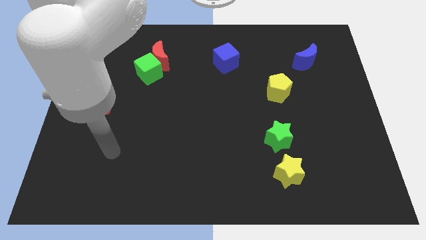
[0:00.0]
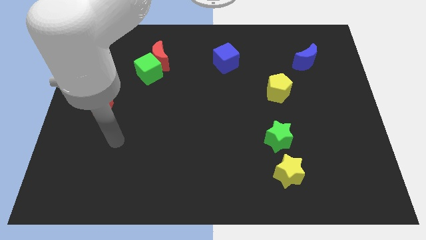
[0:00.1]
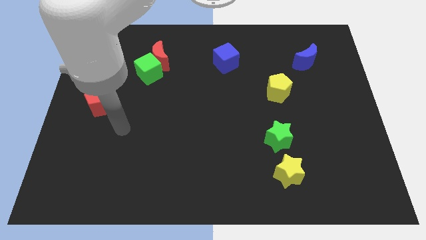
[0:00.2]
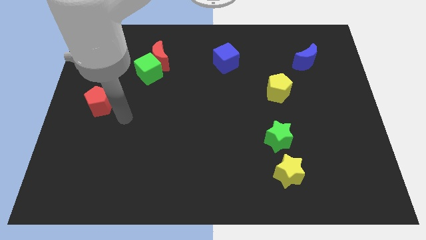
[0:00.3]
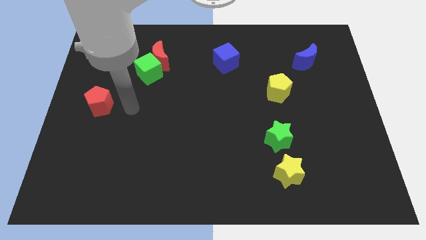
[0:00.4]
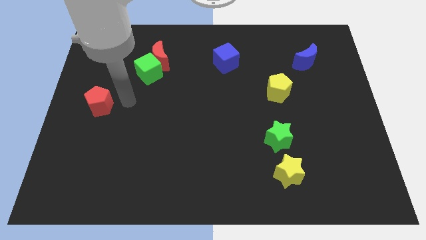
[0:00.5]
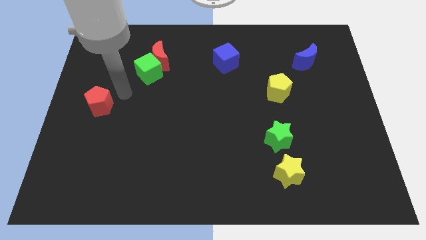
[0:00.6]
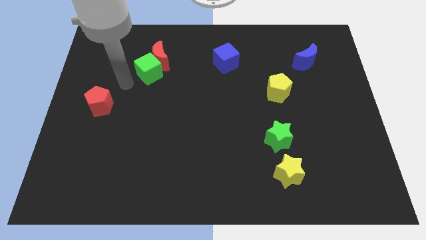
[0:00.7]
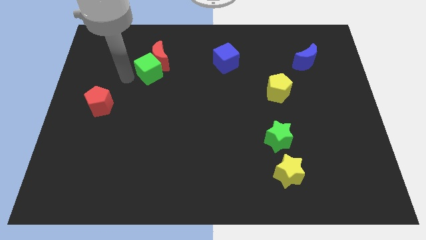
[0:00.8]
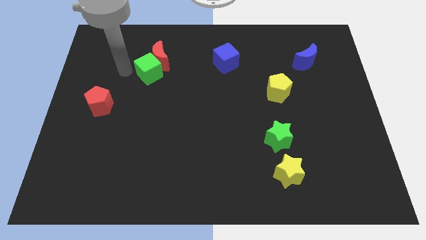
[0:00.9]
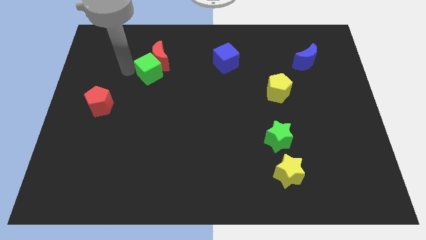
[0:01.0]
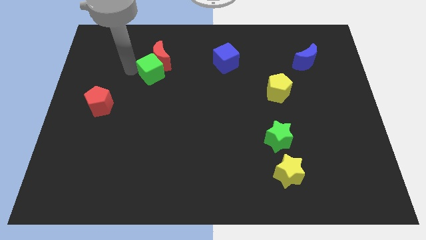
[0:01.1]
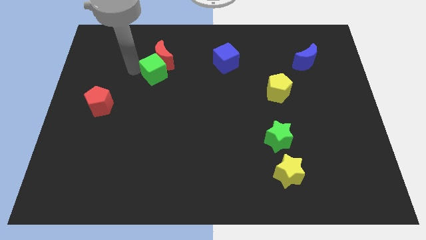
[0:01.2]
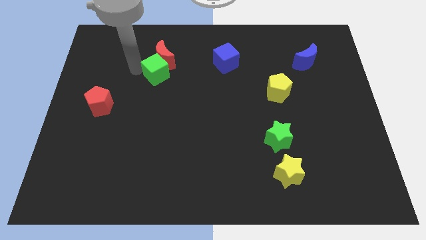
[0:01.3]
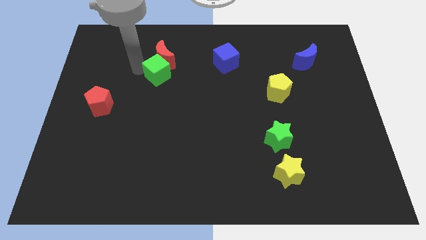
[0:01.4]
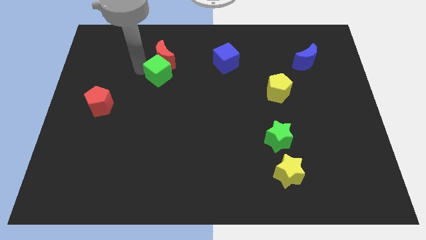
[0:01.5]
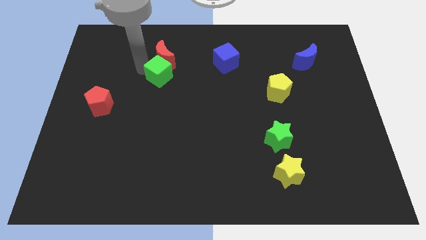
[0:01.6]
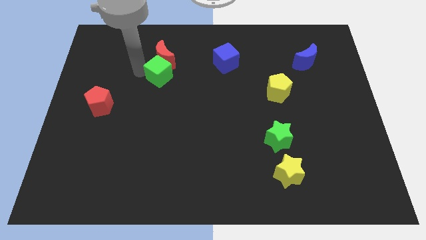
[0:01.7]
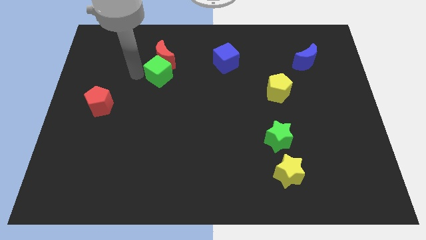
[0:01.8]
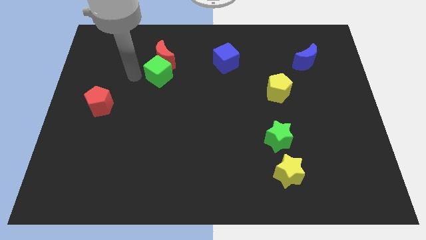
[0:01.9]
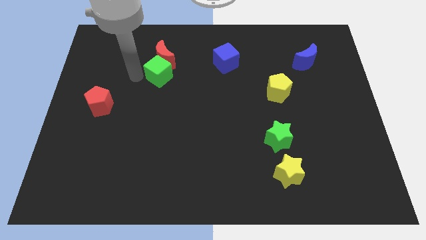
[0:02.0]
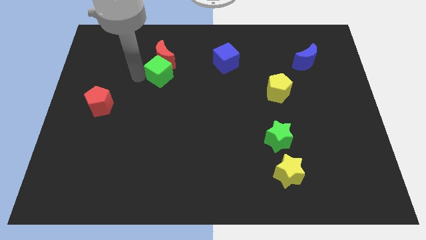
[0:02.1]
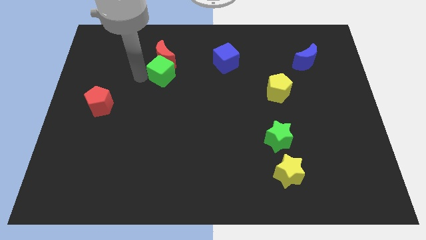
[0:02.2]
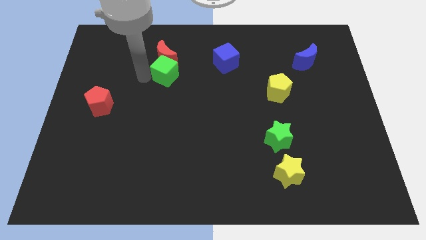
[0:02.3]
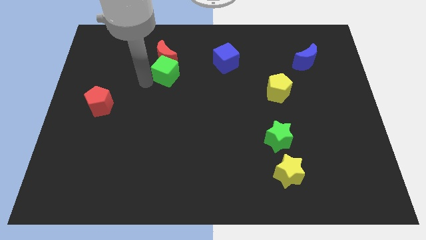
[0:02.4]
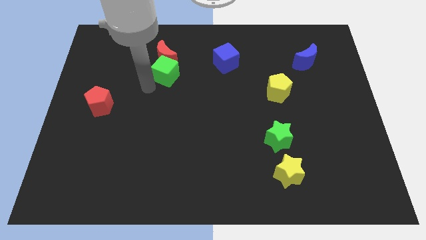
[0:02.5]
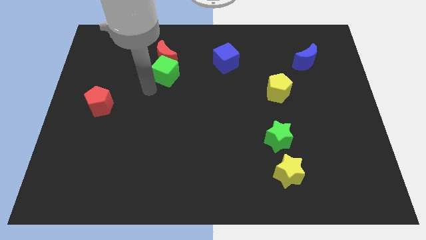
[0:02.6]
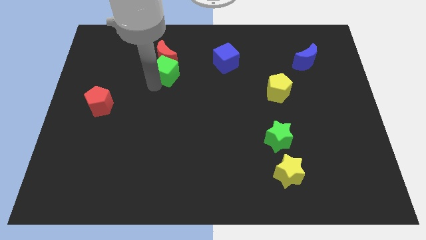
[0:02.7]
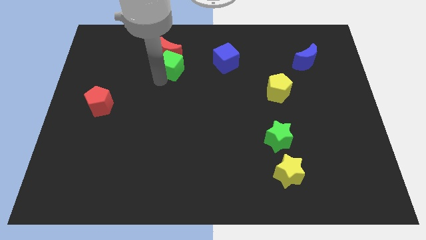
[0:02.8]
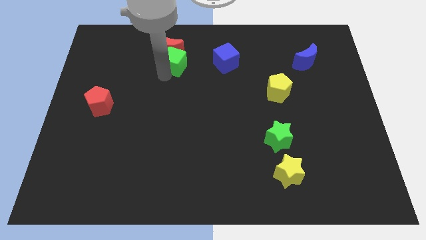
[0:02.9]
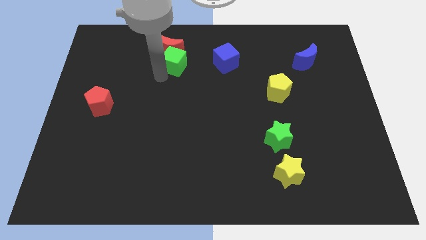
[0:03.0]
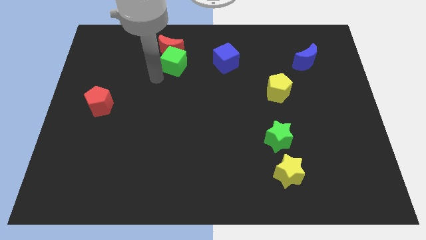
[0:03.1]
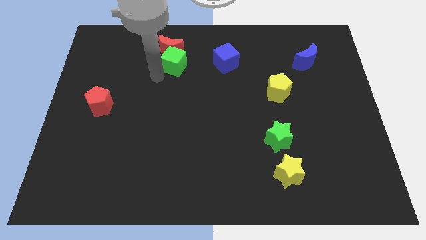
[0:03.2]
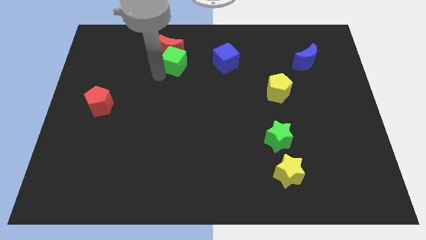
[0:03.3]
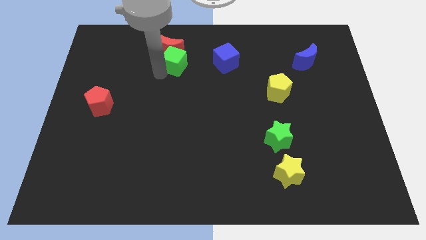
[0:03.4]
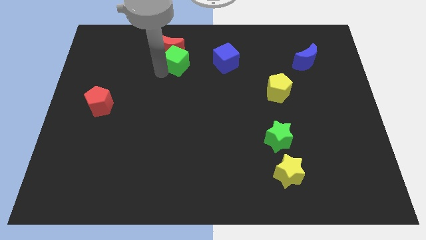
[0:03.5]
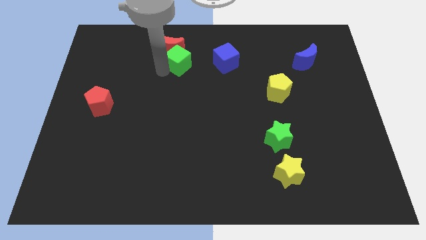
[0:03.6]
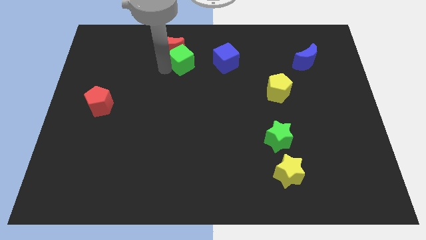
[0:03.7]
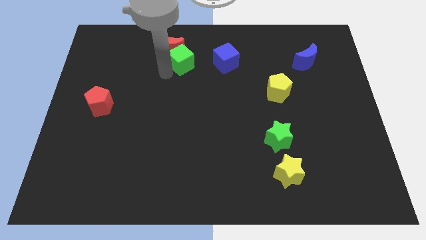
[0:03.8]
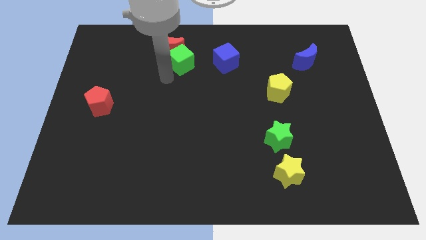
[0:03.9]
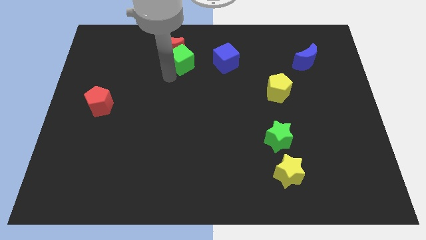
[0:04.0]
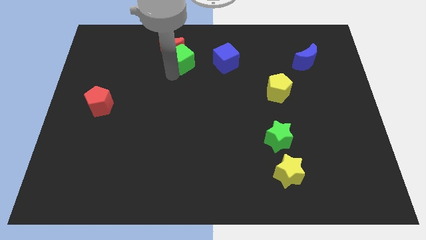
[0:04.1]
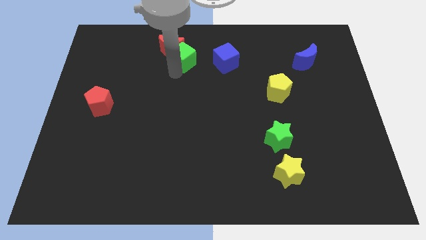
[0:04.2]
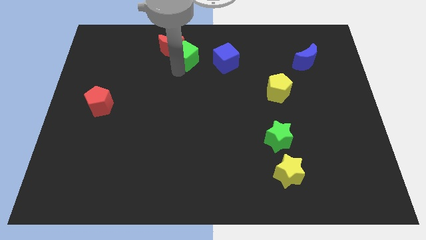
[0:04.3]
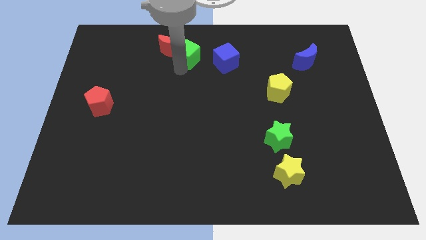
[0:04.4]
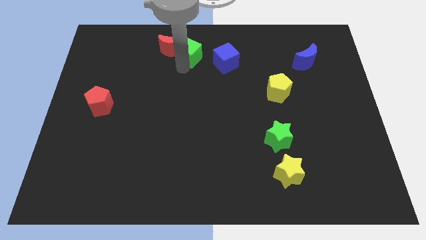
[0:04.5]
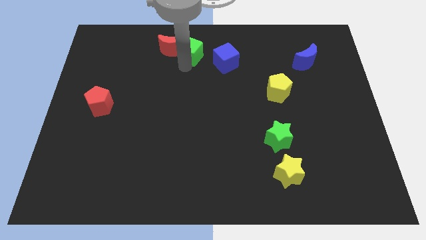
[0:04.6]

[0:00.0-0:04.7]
move the green cube to the towards your base

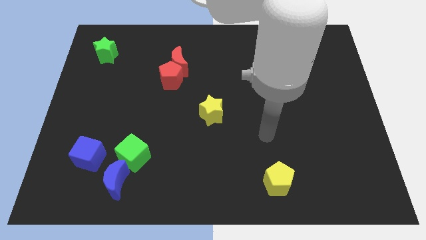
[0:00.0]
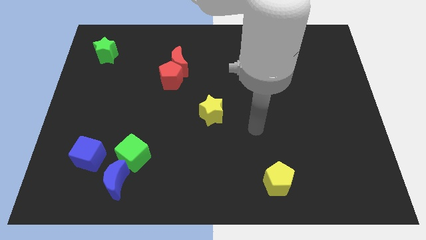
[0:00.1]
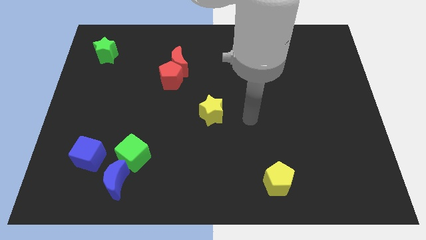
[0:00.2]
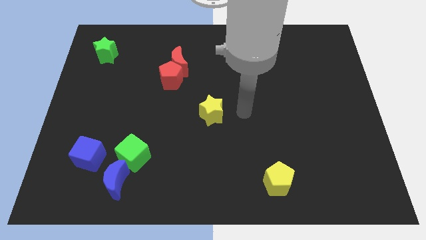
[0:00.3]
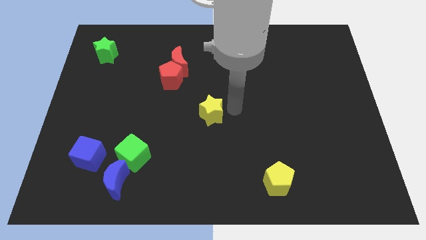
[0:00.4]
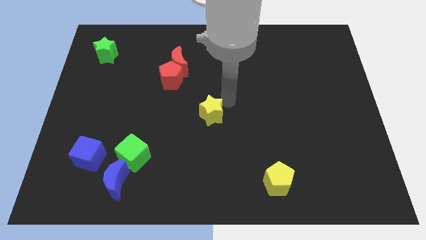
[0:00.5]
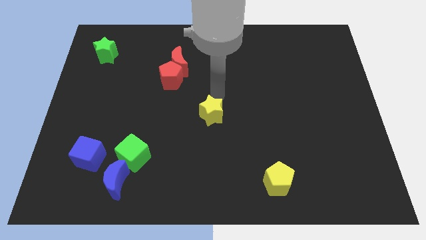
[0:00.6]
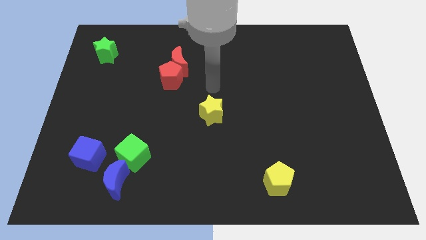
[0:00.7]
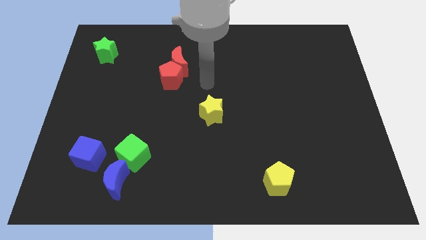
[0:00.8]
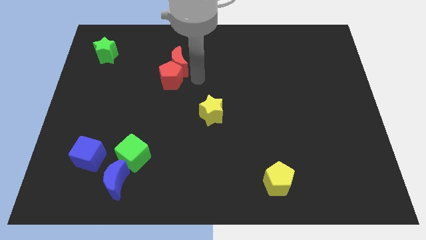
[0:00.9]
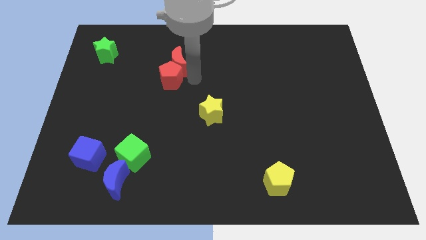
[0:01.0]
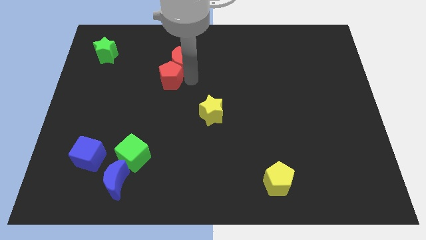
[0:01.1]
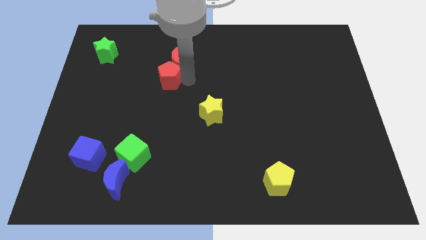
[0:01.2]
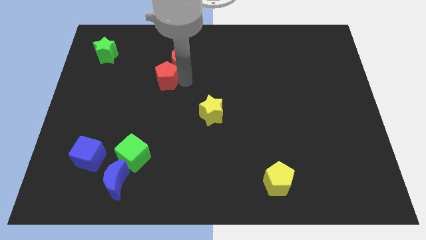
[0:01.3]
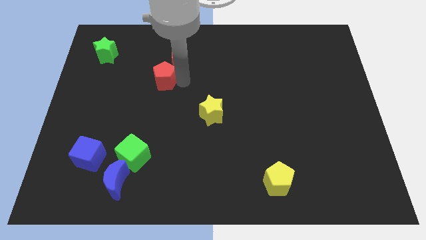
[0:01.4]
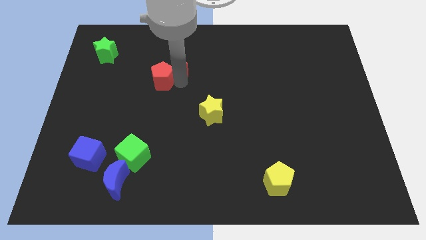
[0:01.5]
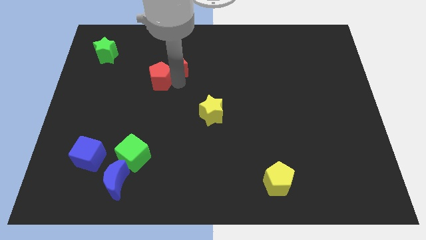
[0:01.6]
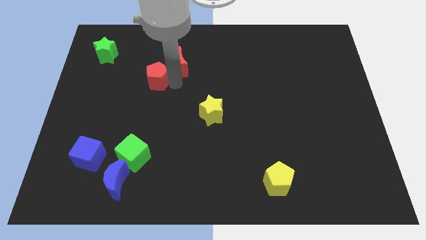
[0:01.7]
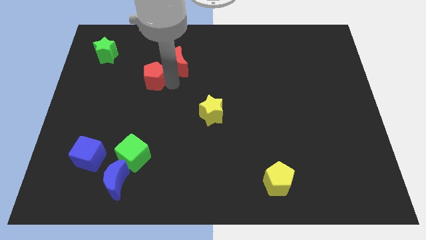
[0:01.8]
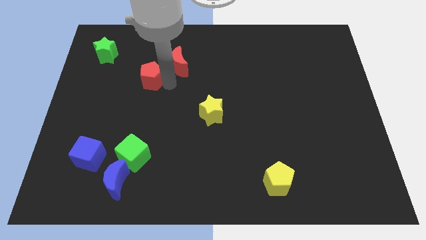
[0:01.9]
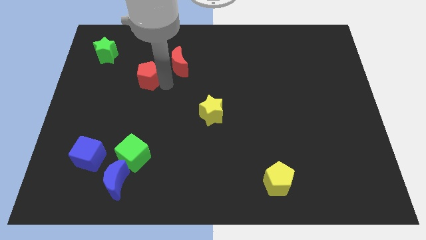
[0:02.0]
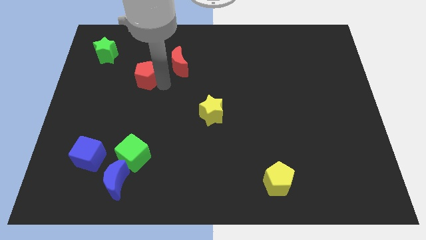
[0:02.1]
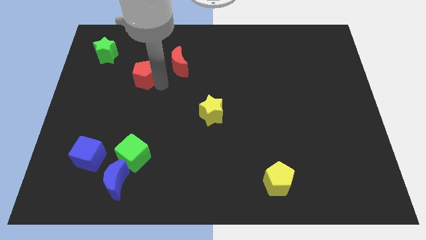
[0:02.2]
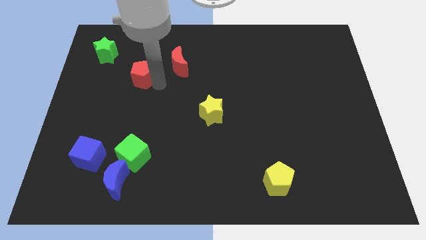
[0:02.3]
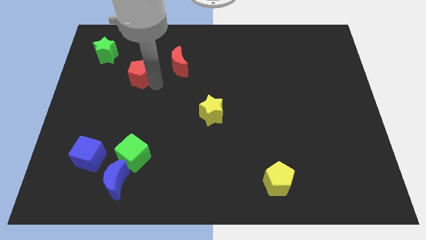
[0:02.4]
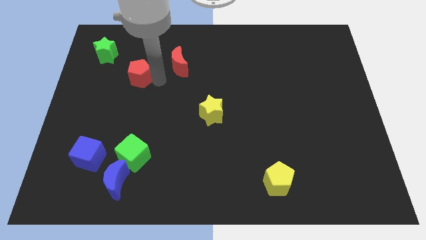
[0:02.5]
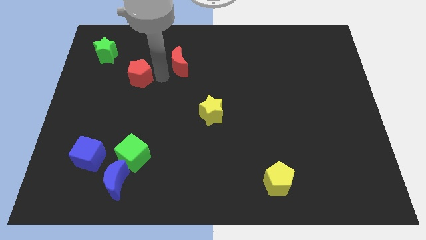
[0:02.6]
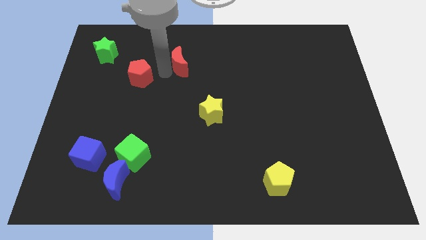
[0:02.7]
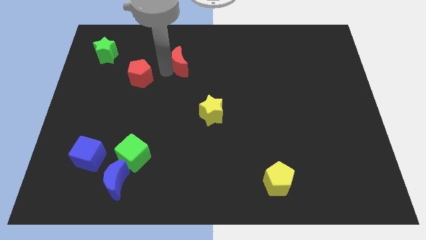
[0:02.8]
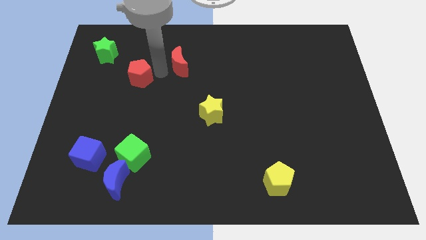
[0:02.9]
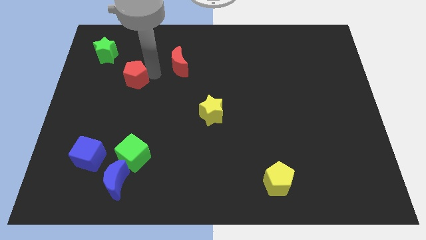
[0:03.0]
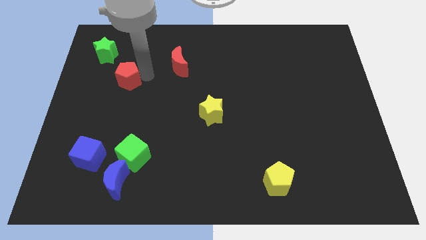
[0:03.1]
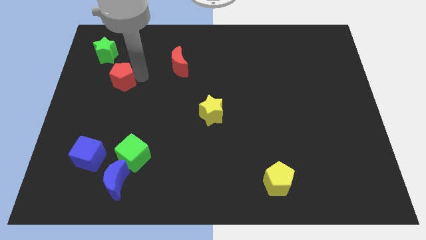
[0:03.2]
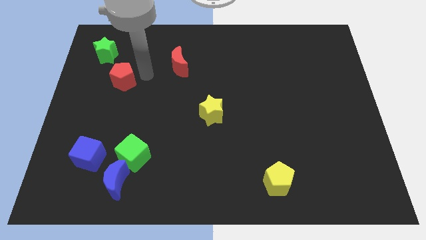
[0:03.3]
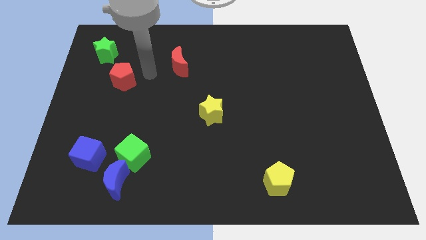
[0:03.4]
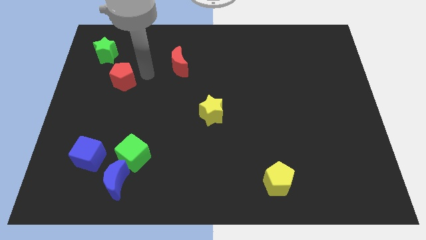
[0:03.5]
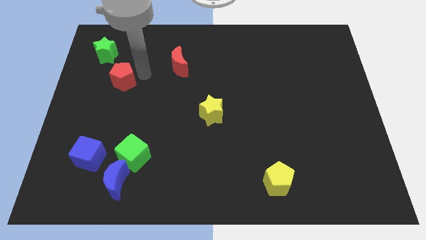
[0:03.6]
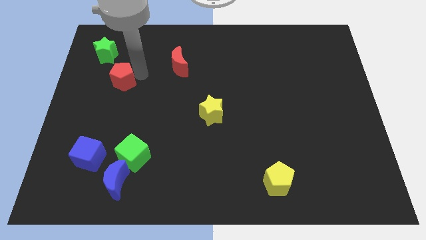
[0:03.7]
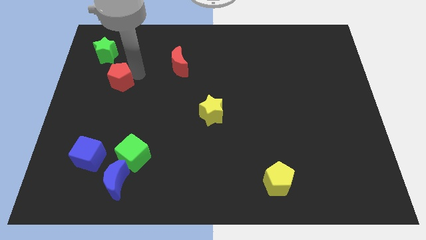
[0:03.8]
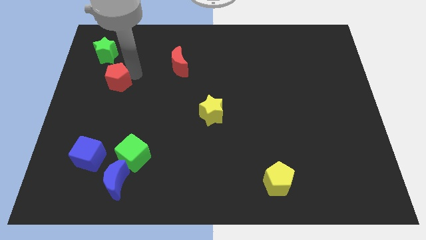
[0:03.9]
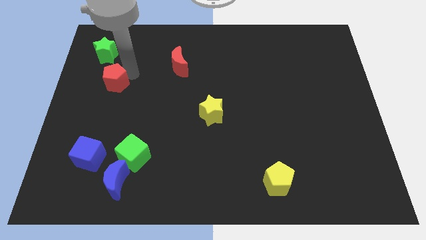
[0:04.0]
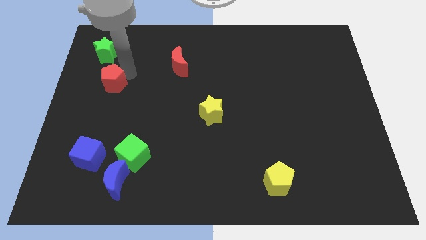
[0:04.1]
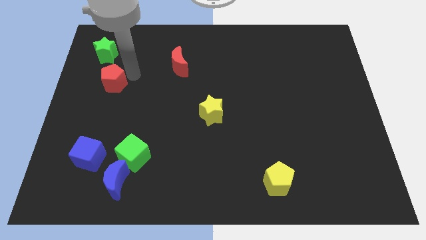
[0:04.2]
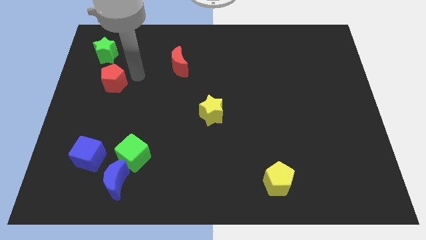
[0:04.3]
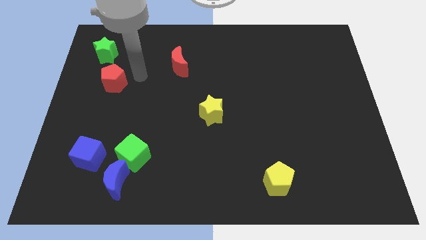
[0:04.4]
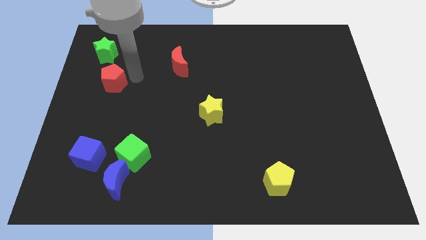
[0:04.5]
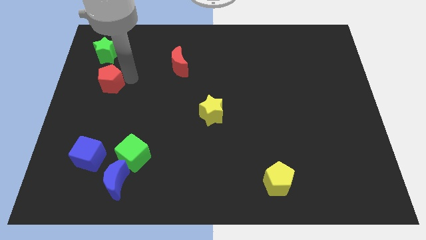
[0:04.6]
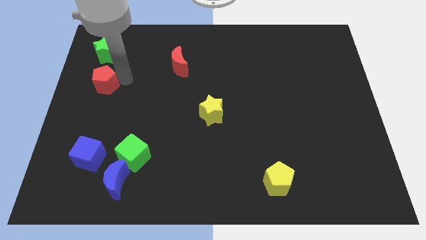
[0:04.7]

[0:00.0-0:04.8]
push the red pentagon to the center left
